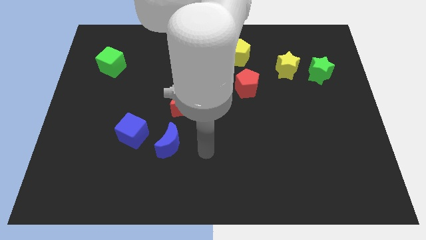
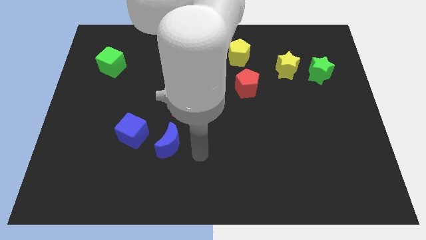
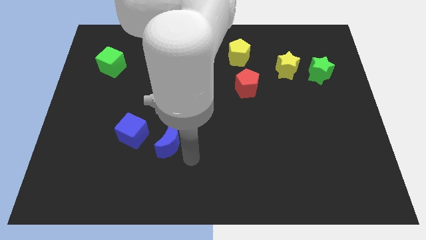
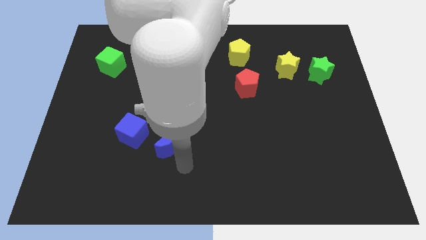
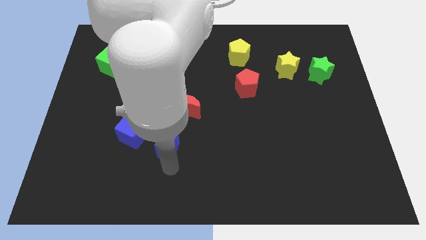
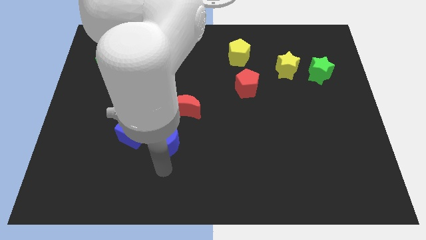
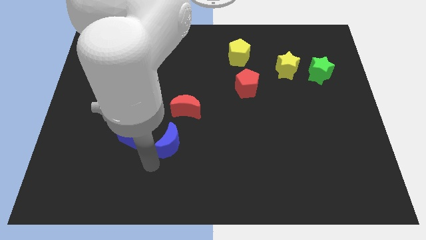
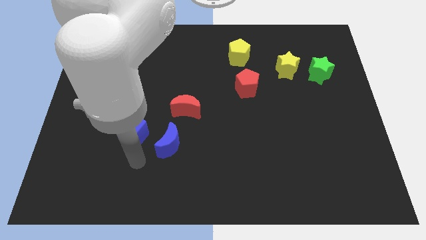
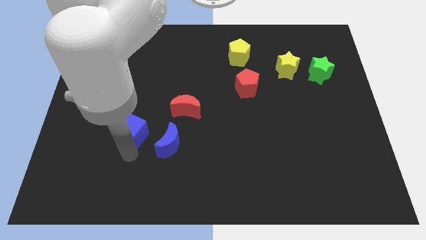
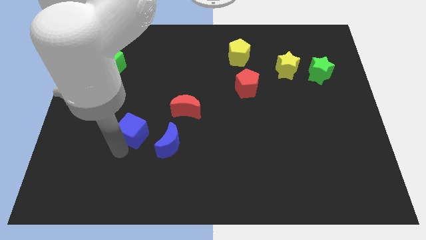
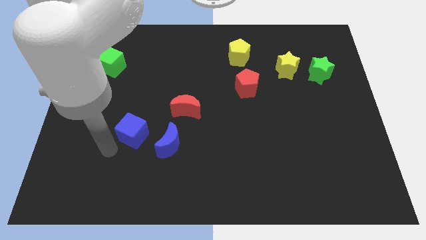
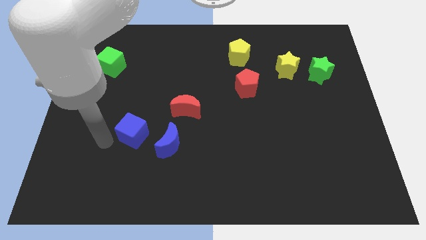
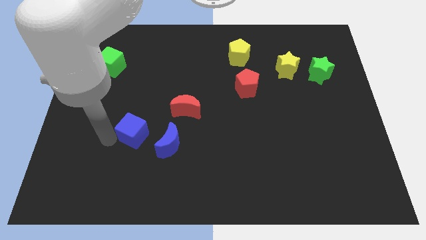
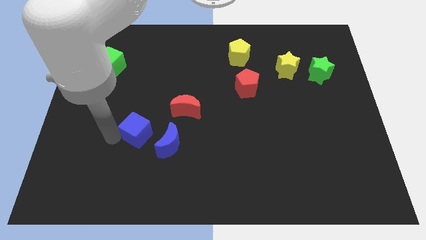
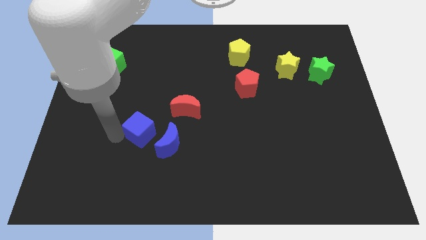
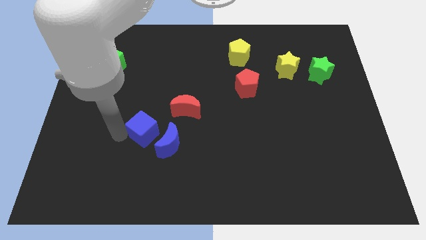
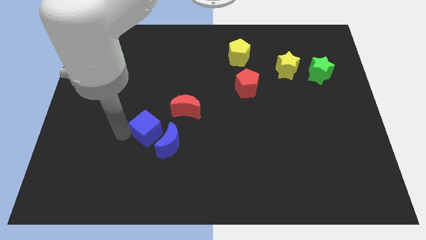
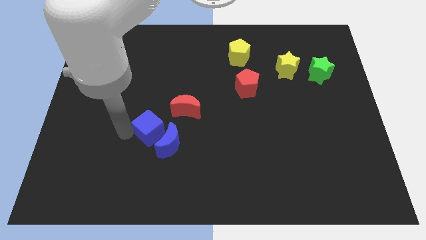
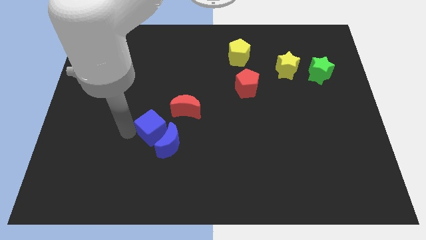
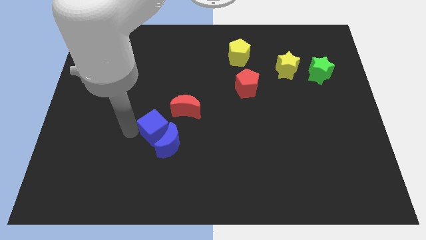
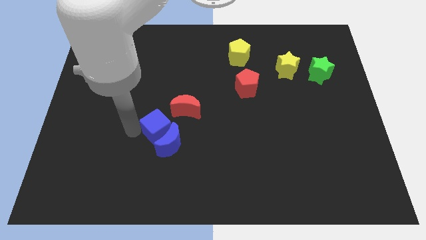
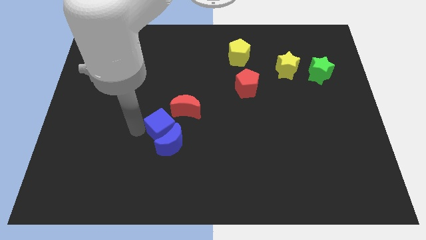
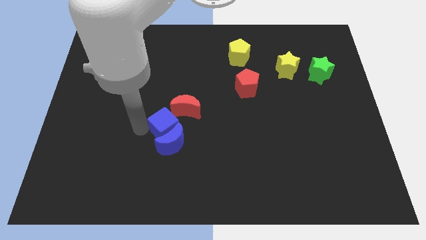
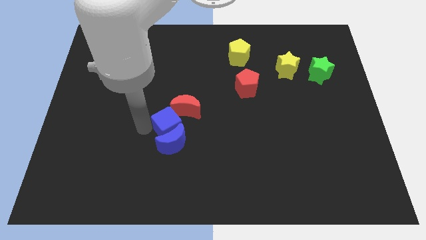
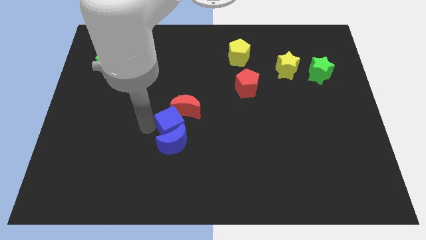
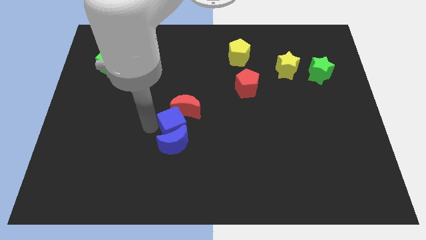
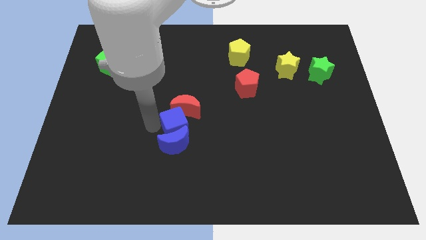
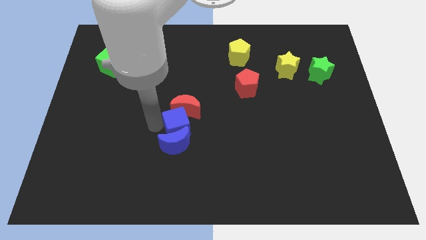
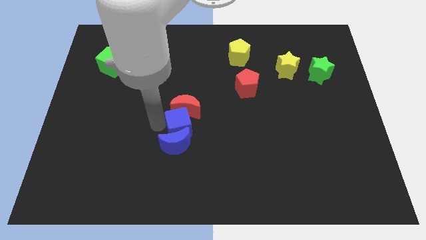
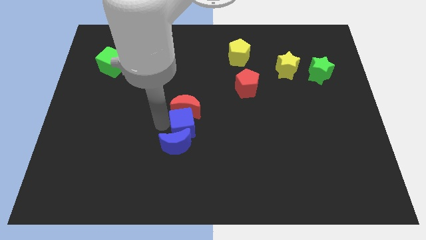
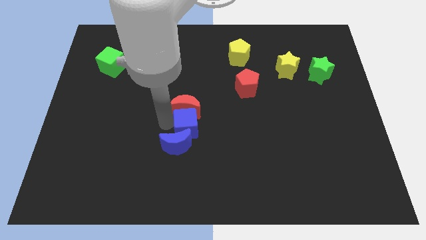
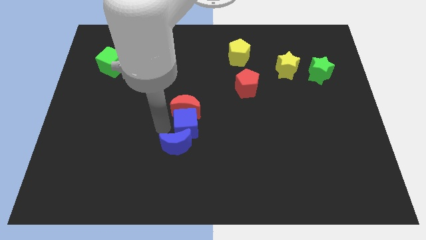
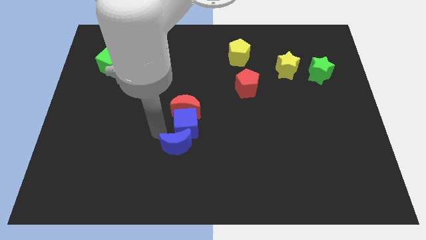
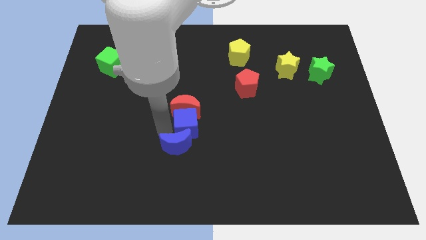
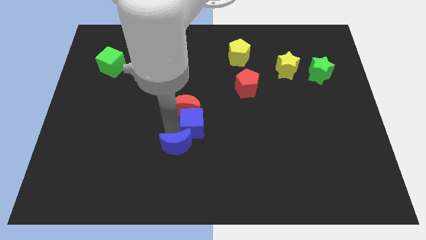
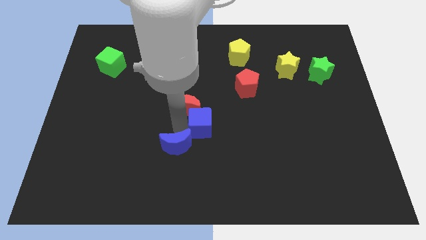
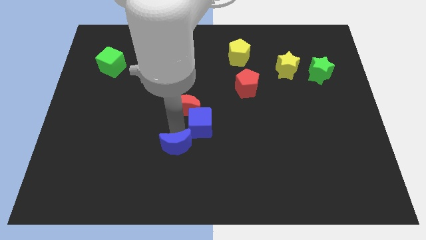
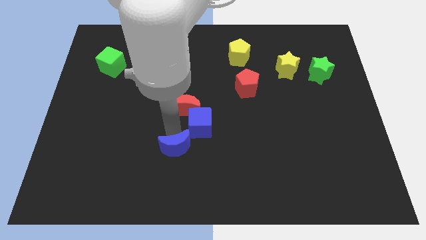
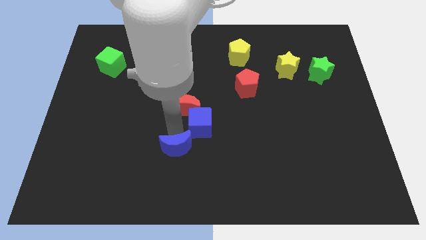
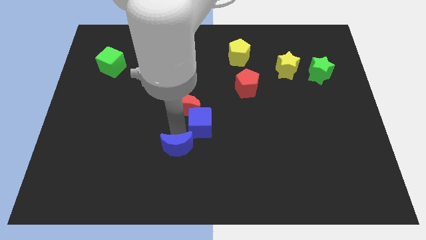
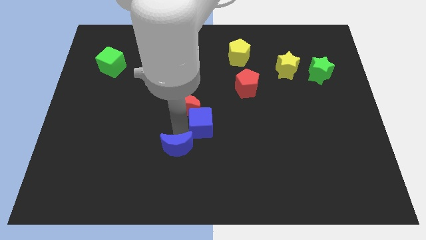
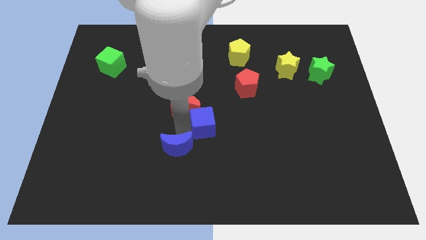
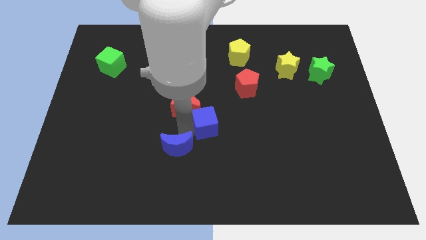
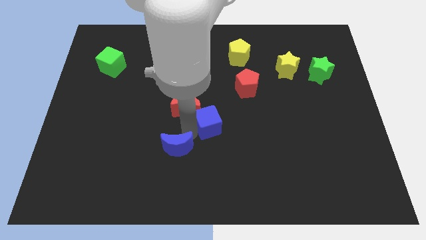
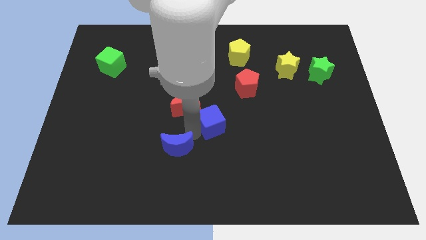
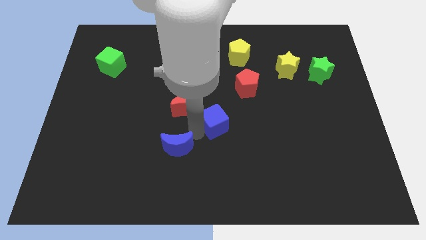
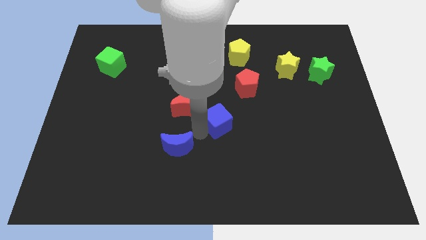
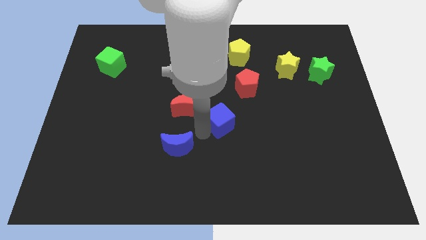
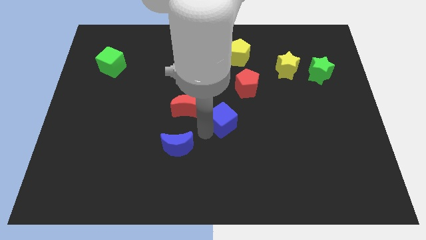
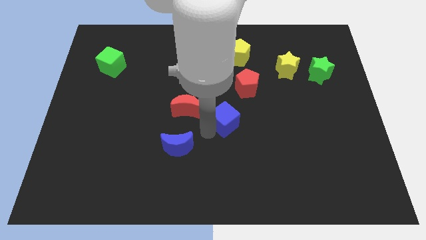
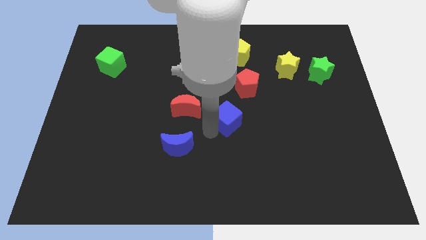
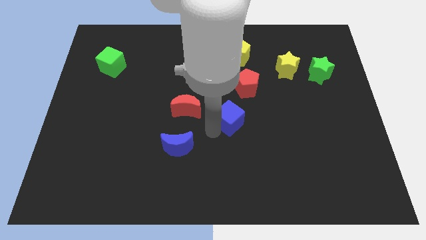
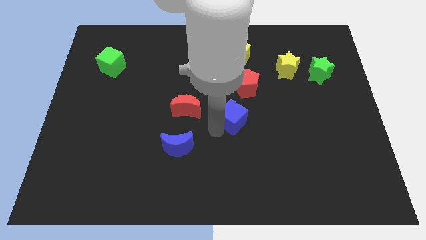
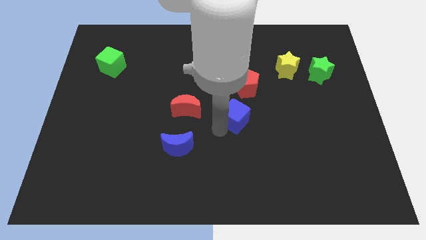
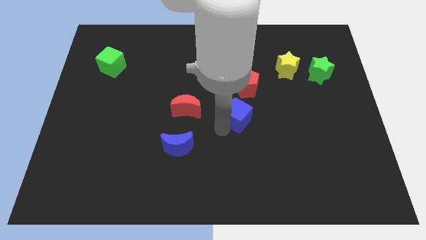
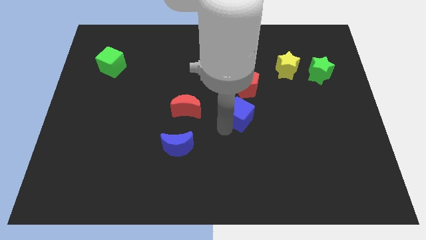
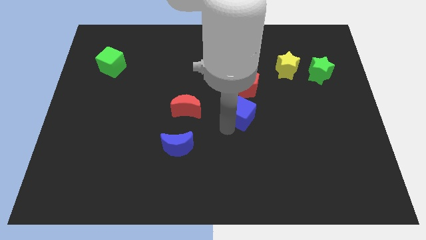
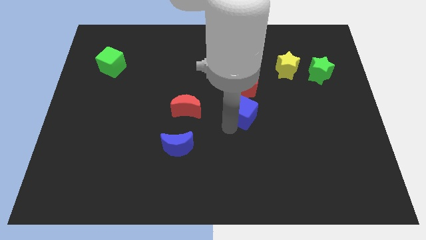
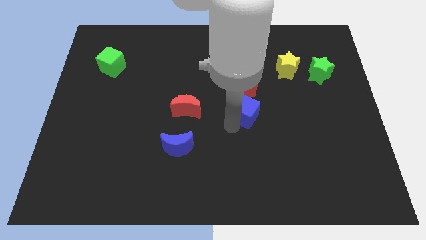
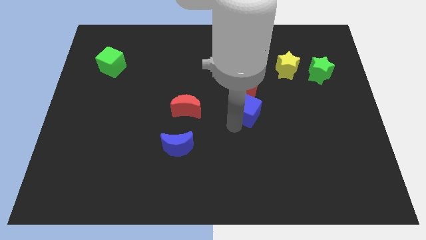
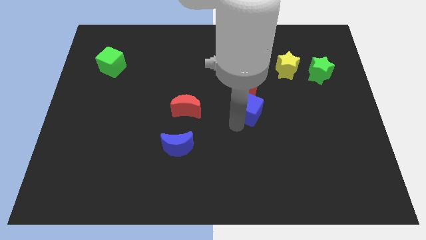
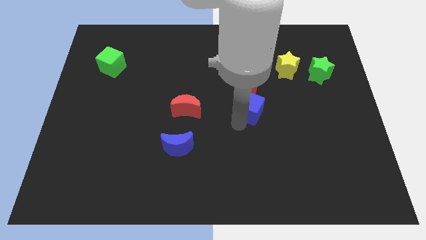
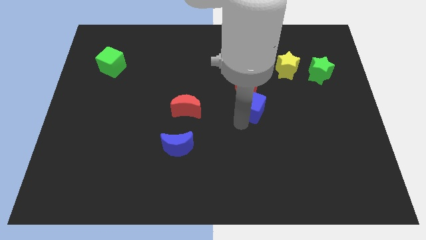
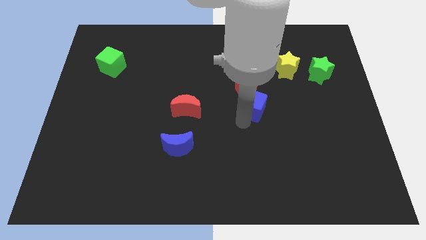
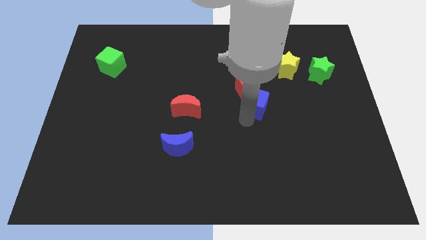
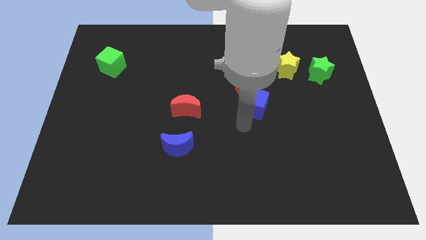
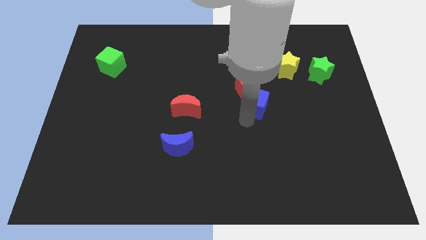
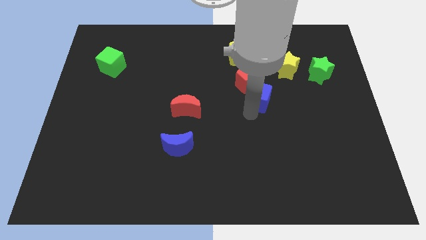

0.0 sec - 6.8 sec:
slide the blue cube diagonally down and to the left of the yellow star

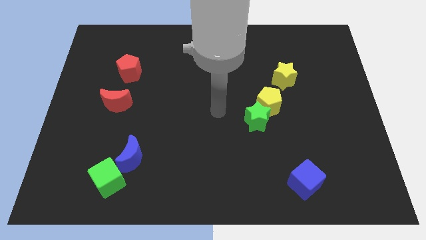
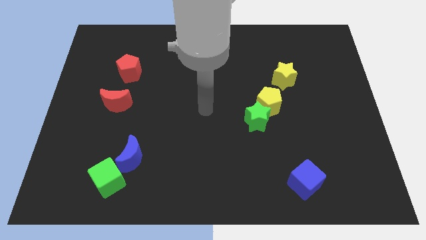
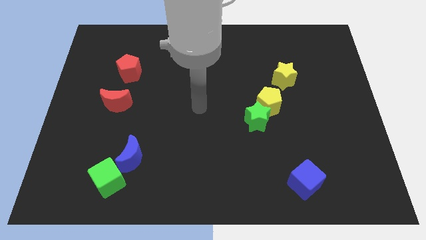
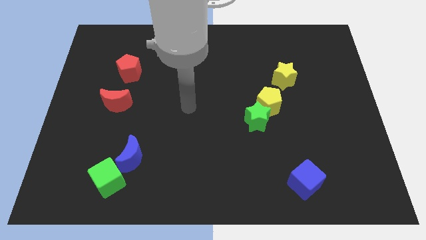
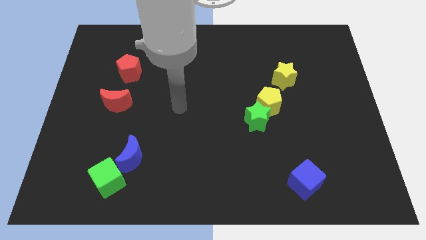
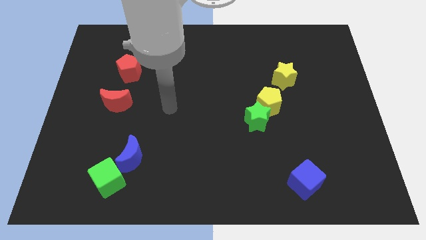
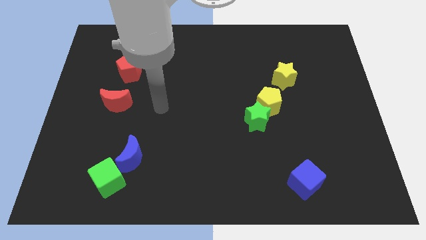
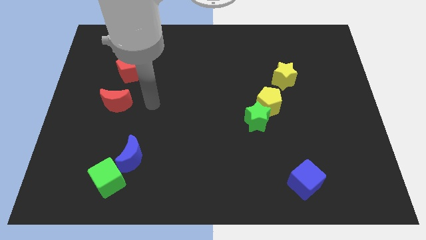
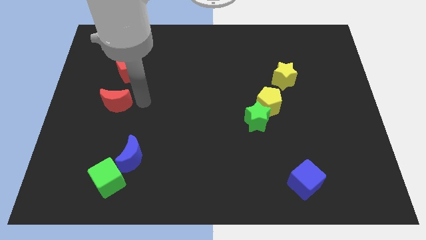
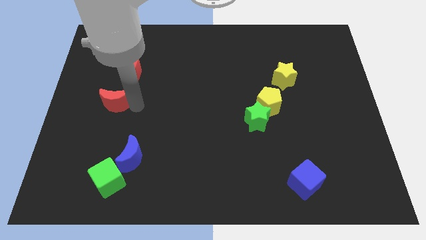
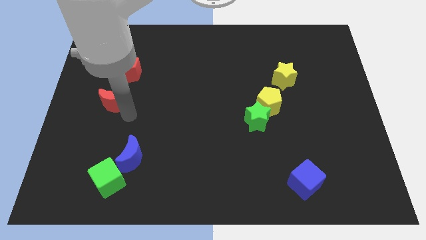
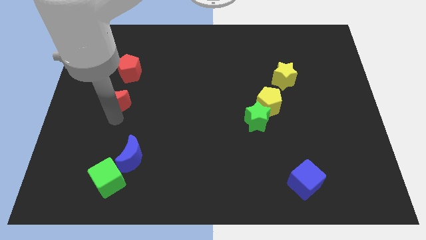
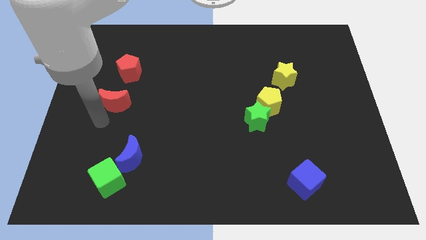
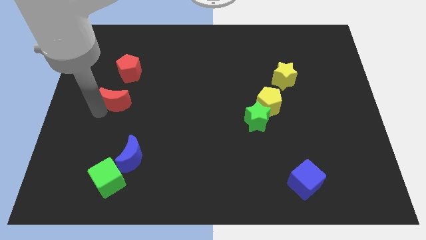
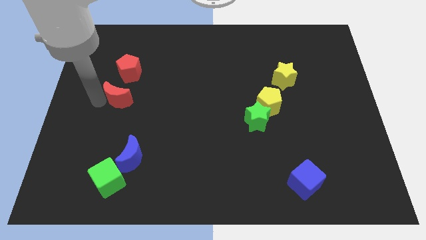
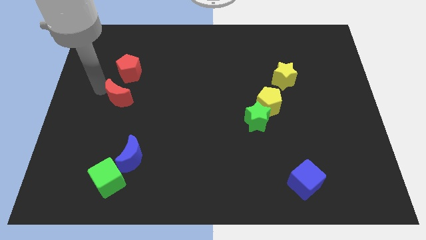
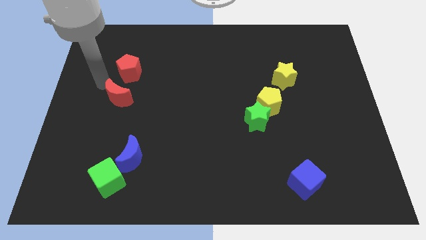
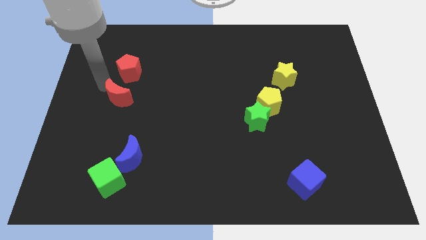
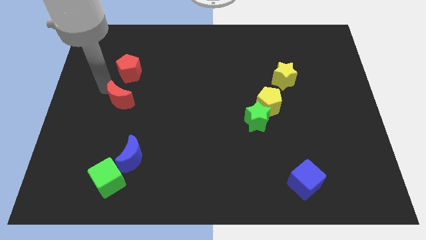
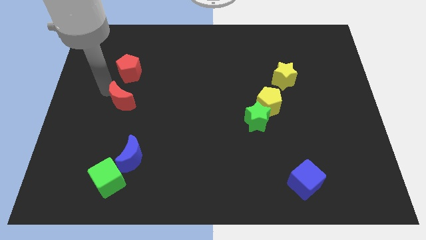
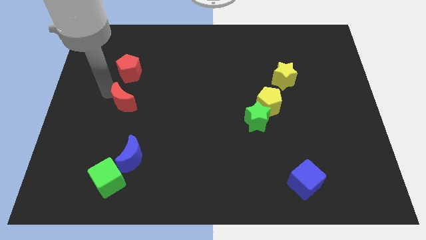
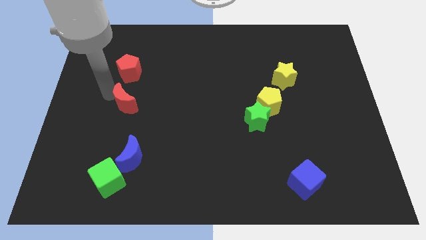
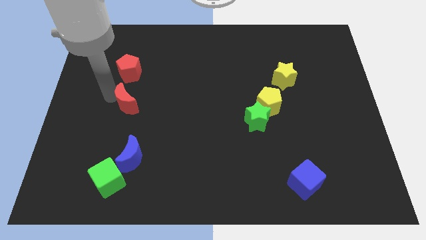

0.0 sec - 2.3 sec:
slide the red moon above the blue moon
